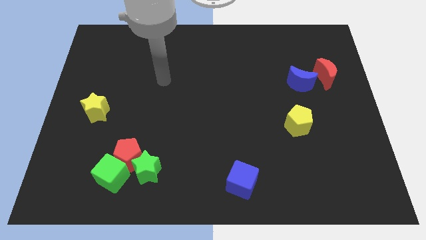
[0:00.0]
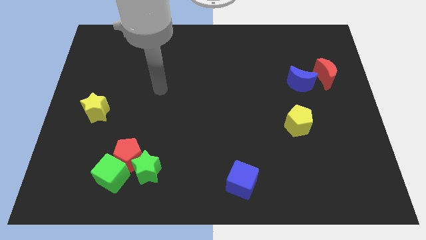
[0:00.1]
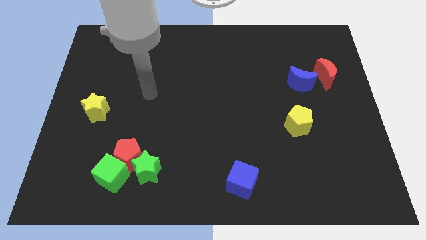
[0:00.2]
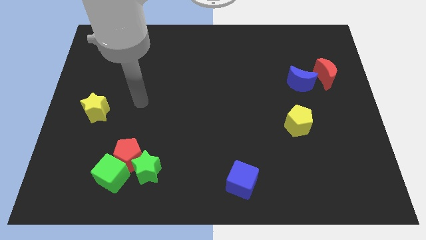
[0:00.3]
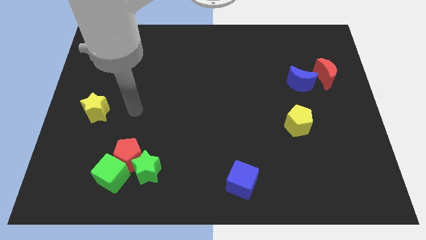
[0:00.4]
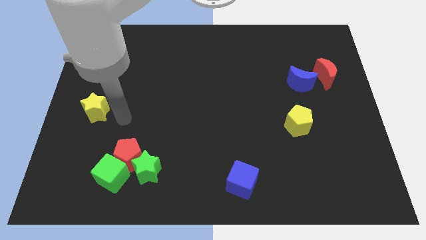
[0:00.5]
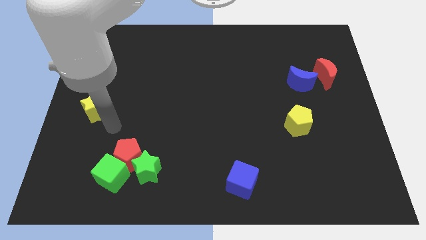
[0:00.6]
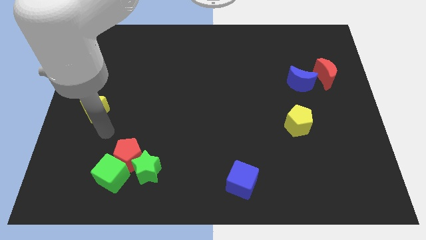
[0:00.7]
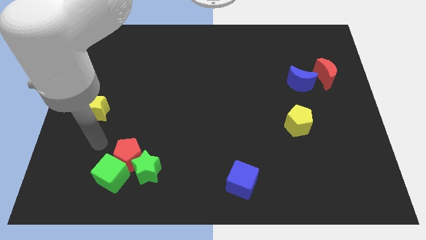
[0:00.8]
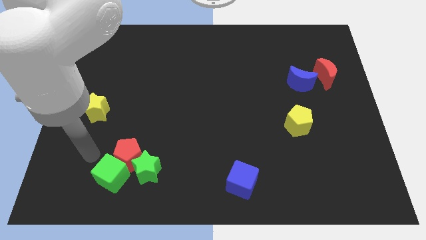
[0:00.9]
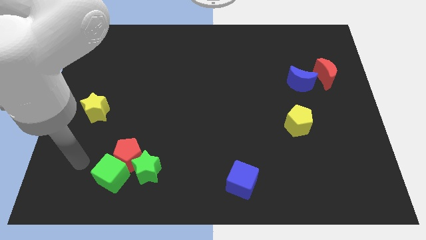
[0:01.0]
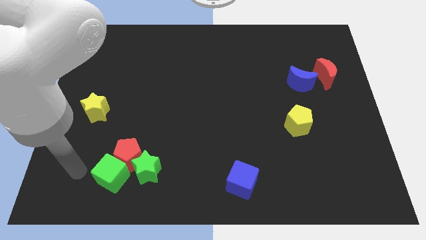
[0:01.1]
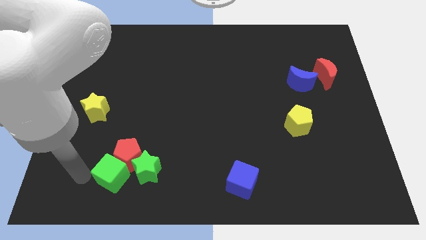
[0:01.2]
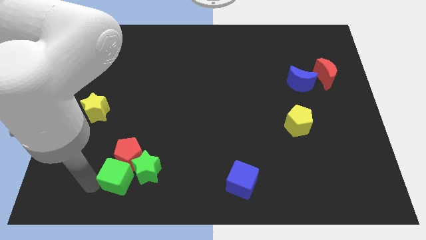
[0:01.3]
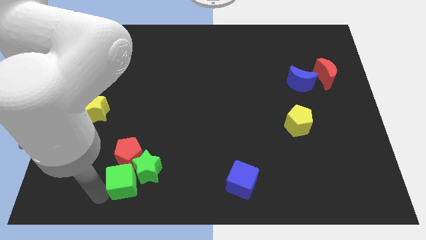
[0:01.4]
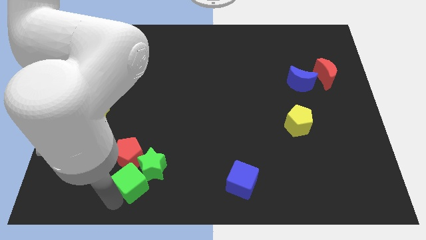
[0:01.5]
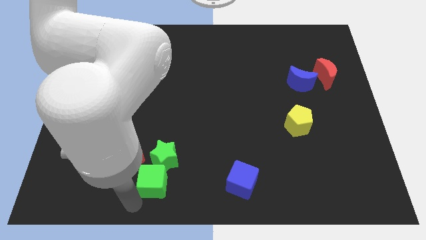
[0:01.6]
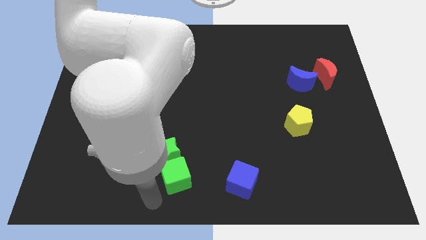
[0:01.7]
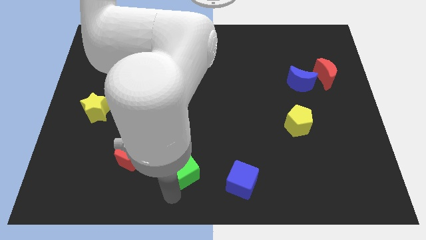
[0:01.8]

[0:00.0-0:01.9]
push the green cube diagonally upwards and right a little bit

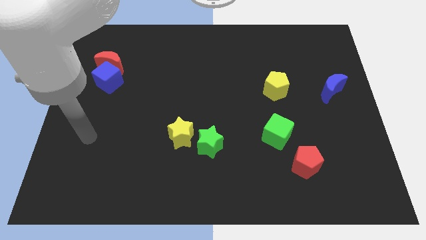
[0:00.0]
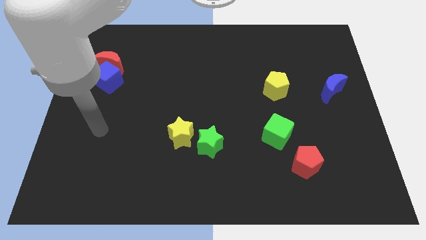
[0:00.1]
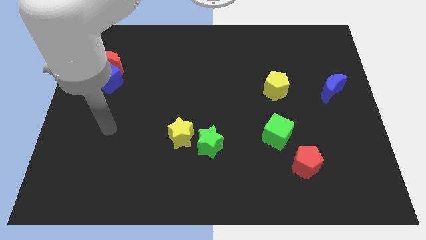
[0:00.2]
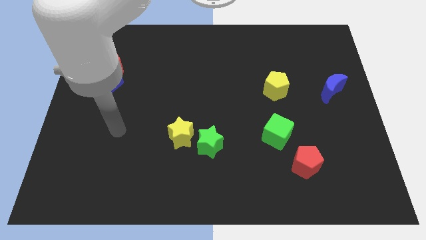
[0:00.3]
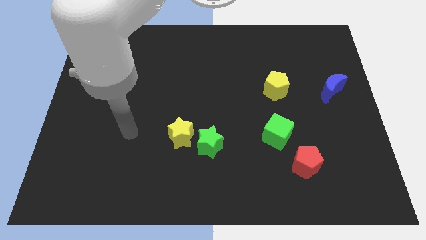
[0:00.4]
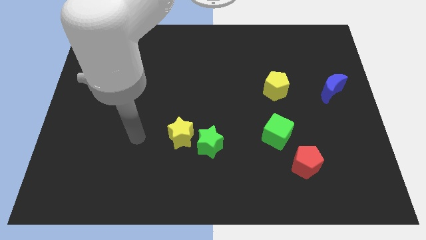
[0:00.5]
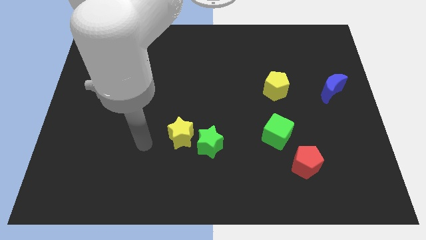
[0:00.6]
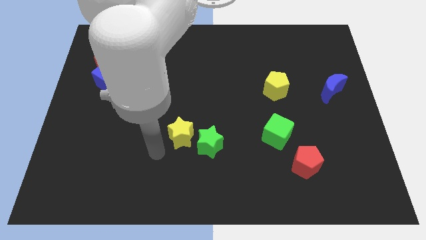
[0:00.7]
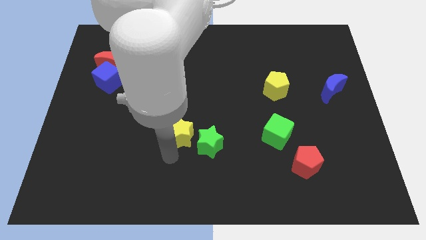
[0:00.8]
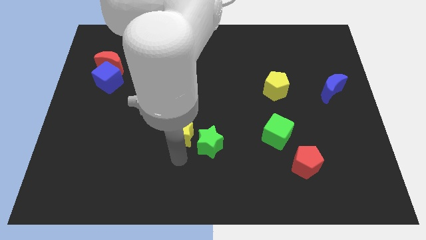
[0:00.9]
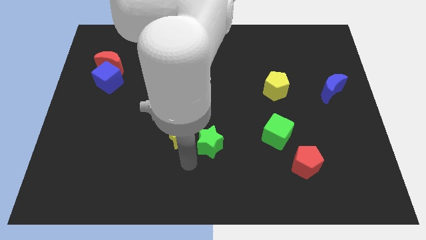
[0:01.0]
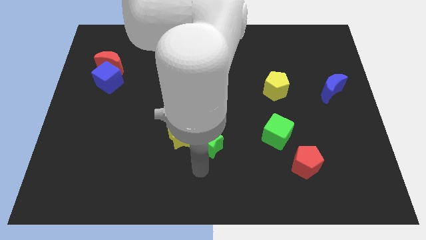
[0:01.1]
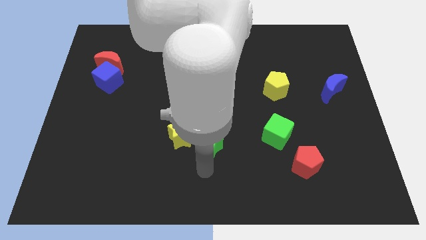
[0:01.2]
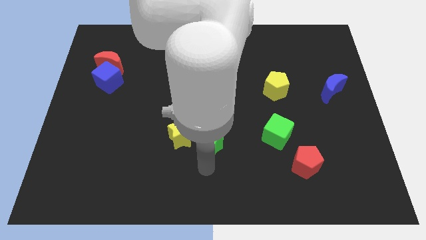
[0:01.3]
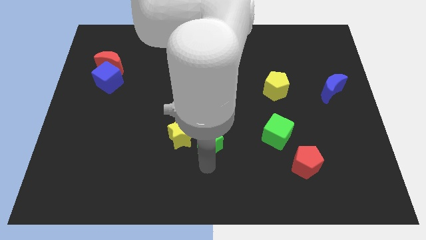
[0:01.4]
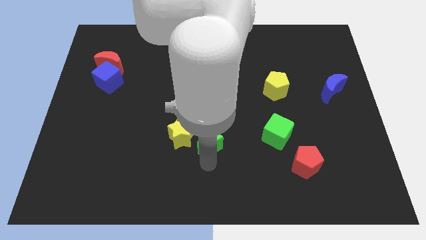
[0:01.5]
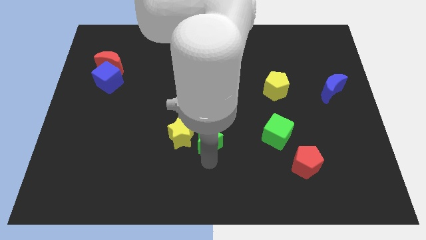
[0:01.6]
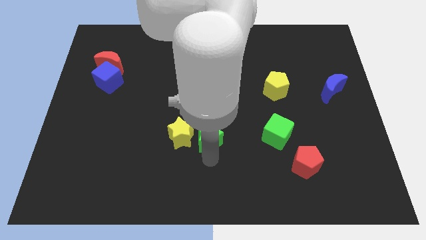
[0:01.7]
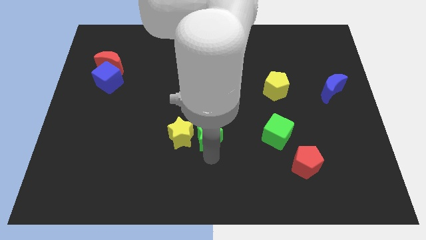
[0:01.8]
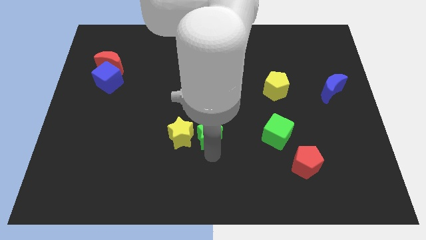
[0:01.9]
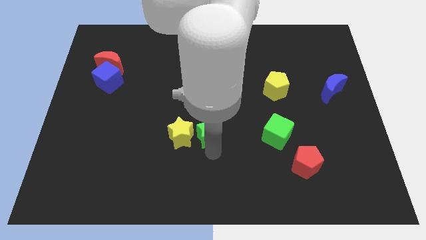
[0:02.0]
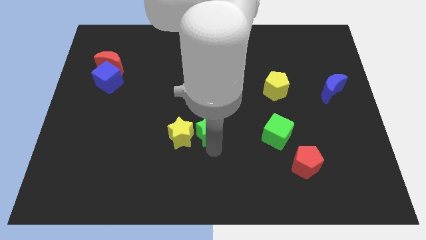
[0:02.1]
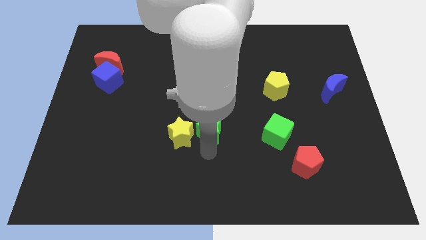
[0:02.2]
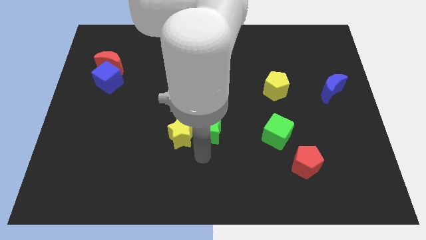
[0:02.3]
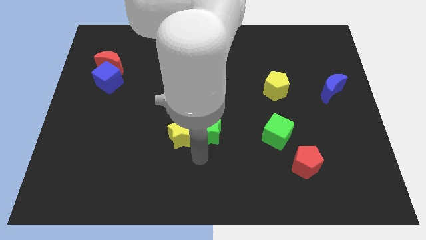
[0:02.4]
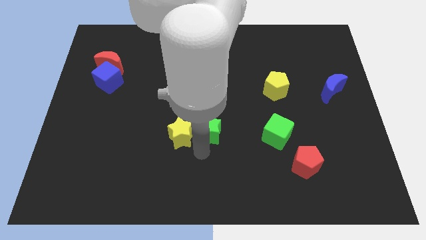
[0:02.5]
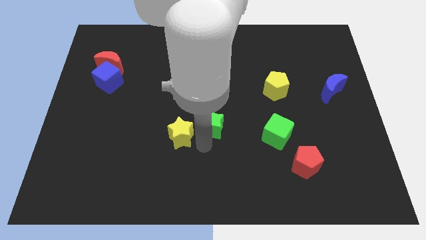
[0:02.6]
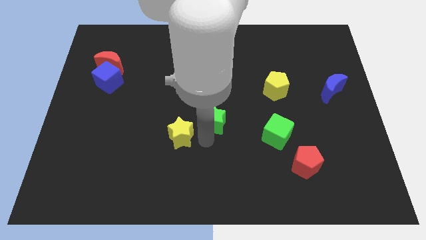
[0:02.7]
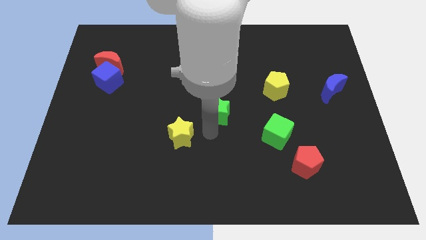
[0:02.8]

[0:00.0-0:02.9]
slightly slide the green star up

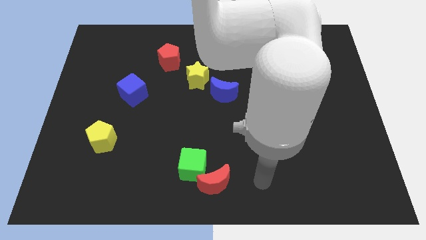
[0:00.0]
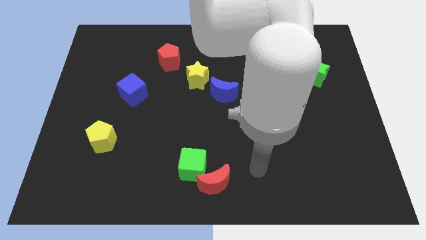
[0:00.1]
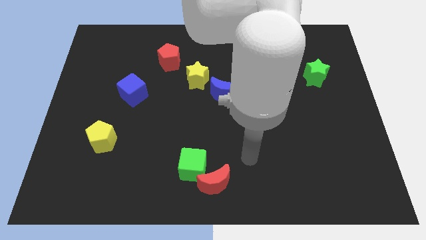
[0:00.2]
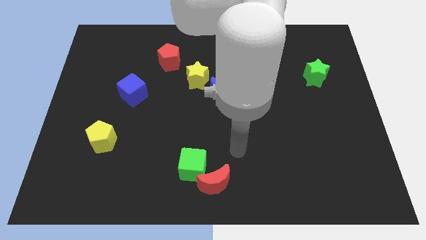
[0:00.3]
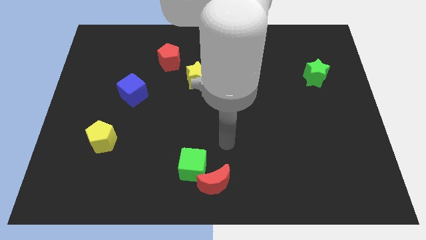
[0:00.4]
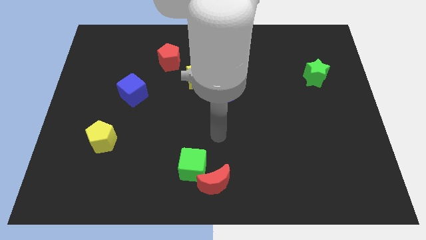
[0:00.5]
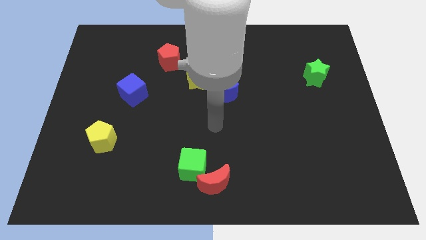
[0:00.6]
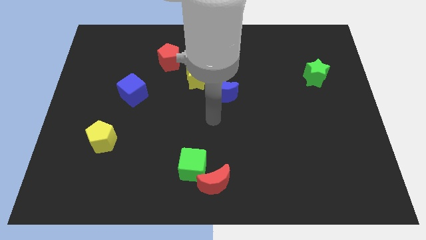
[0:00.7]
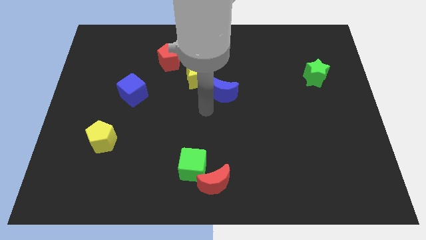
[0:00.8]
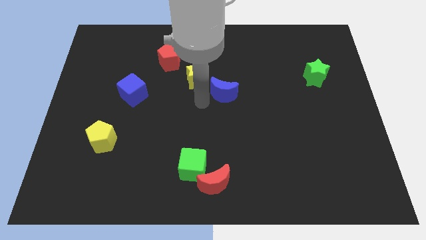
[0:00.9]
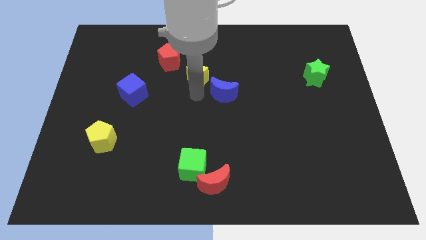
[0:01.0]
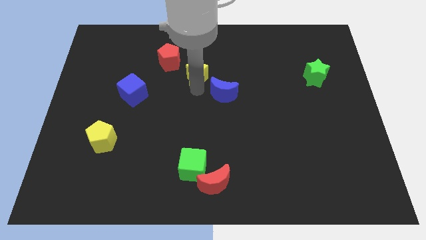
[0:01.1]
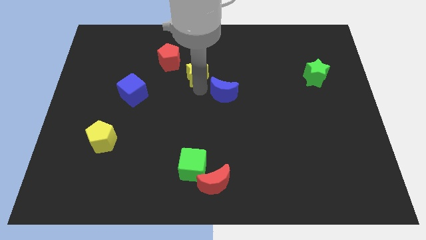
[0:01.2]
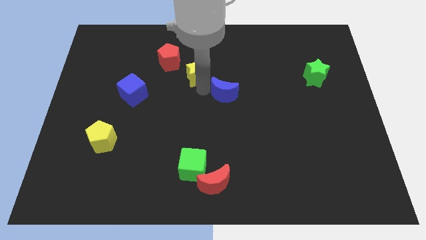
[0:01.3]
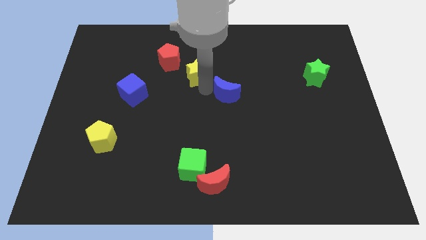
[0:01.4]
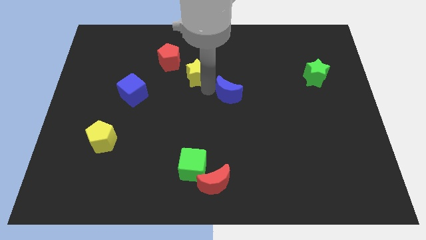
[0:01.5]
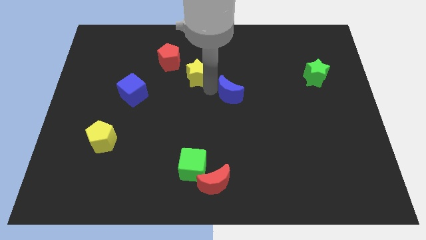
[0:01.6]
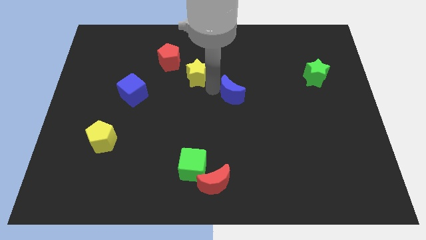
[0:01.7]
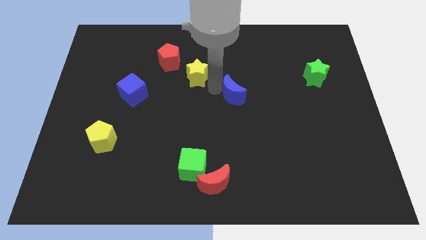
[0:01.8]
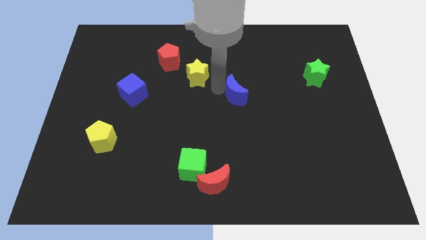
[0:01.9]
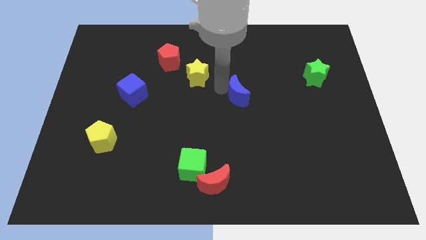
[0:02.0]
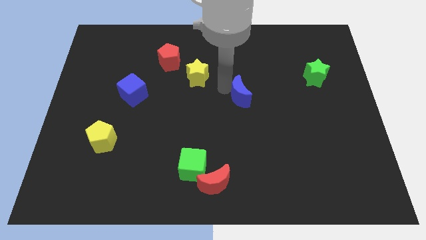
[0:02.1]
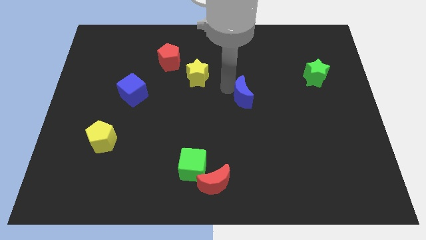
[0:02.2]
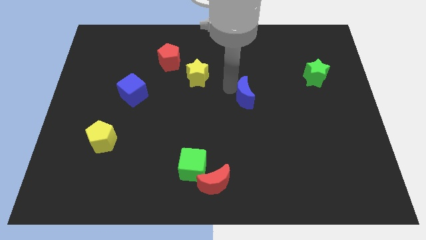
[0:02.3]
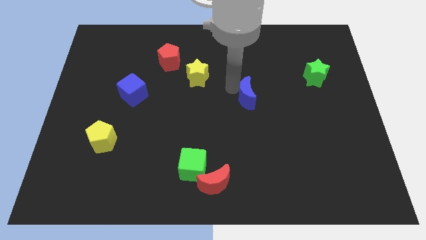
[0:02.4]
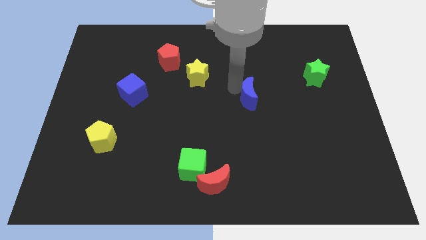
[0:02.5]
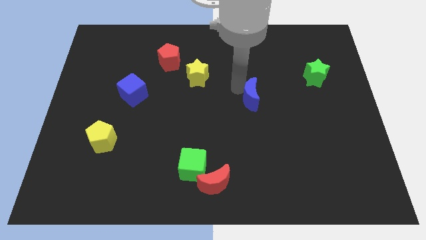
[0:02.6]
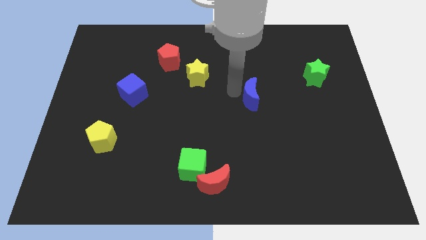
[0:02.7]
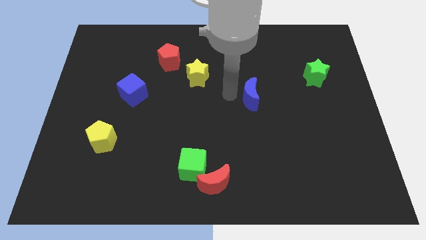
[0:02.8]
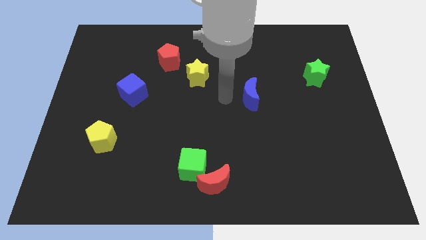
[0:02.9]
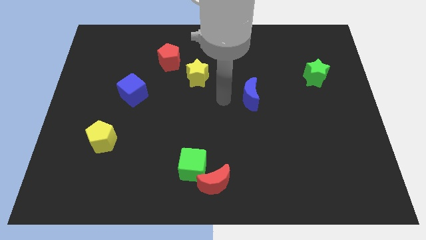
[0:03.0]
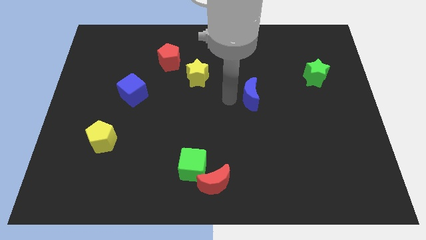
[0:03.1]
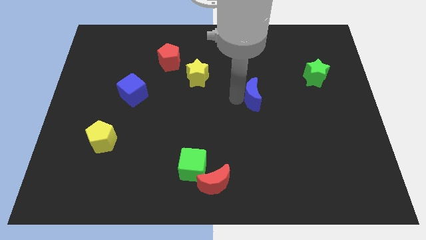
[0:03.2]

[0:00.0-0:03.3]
move the blue moon to the right a bit
